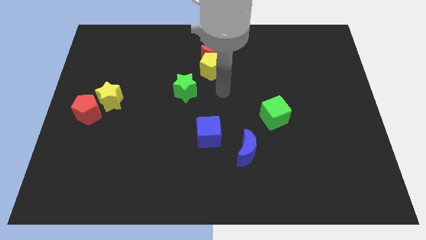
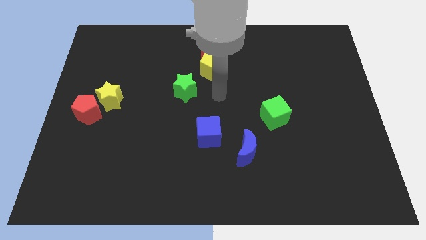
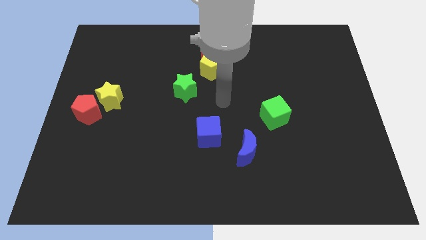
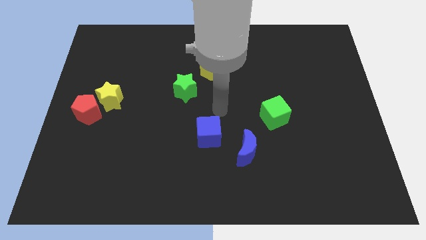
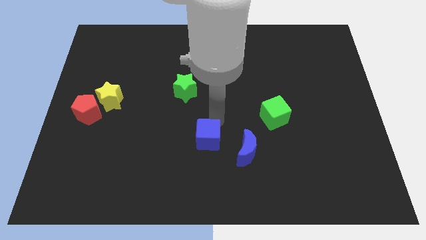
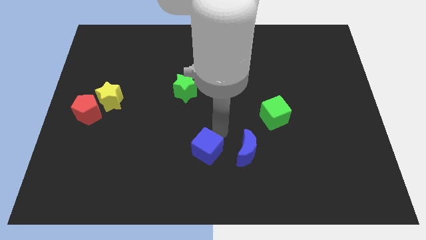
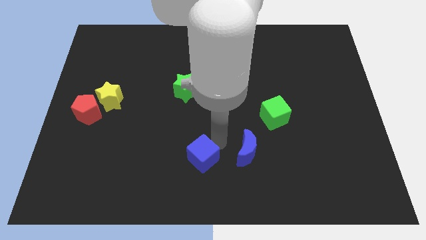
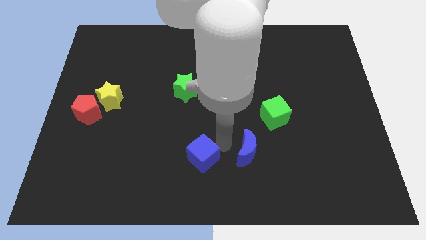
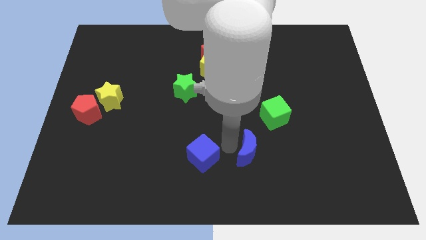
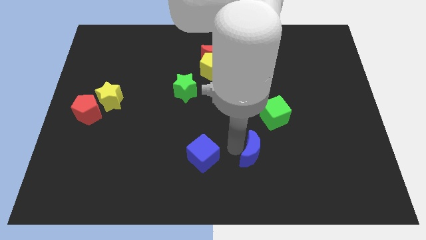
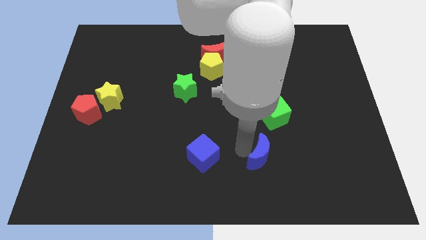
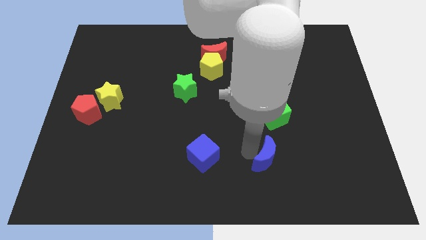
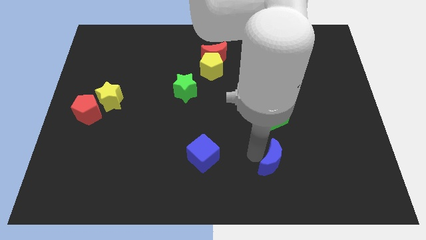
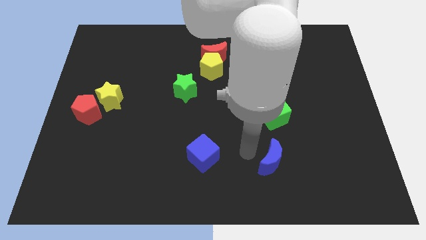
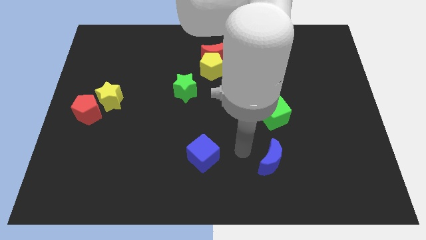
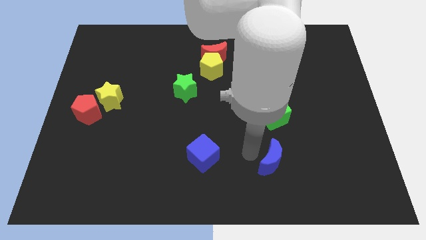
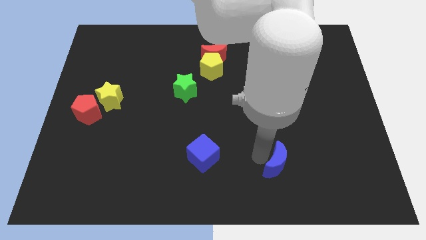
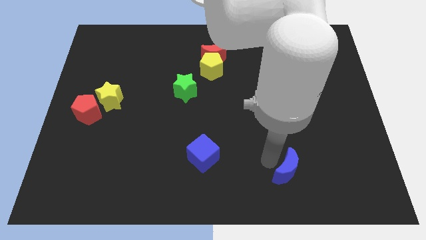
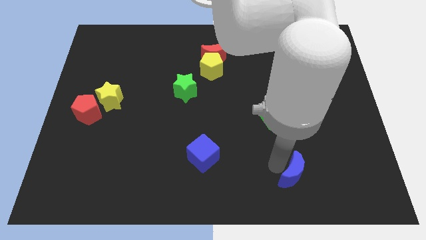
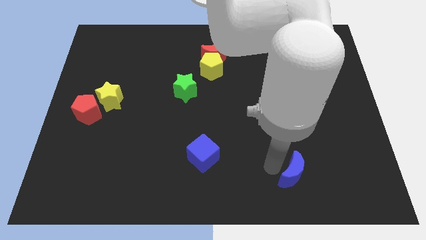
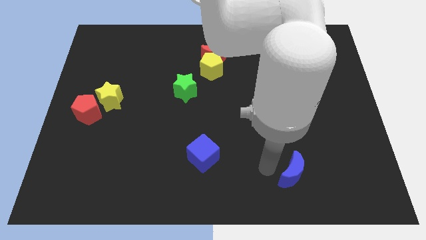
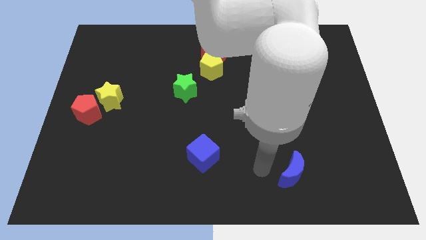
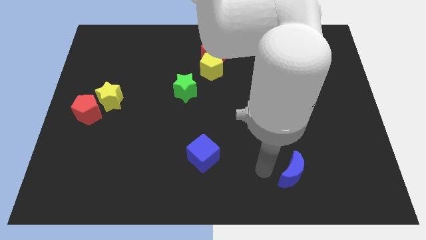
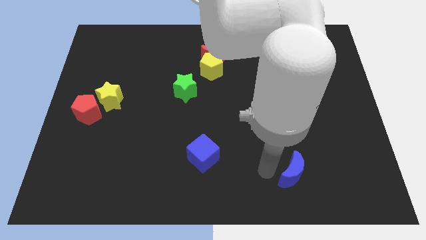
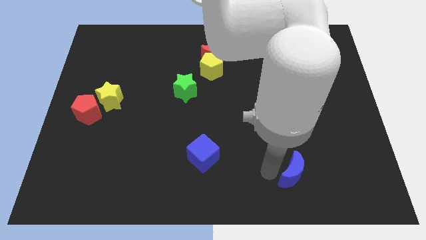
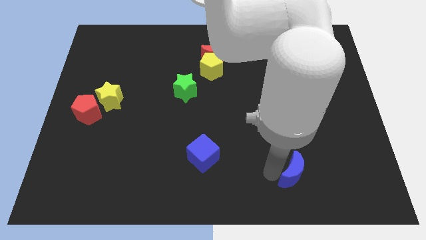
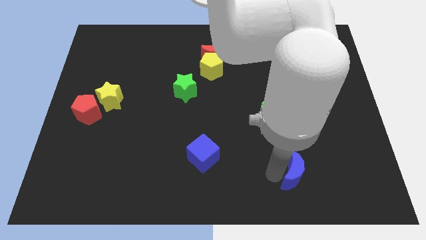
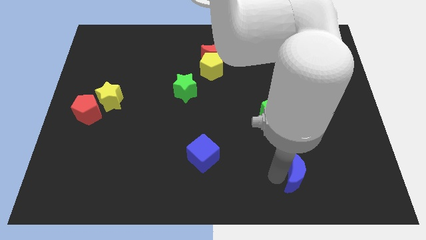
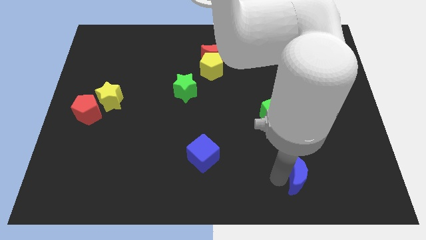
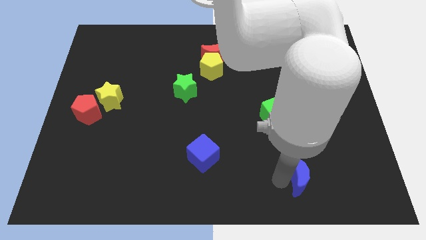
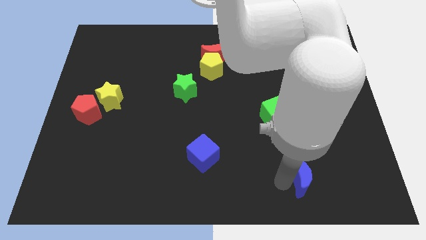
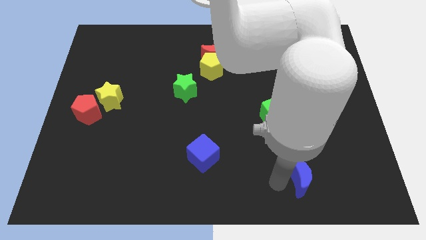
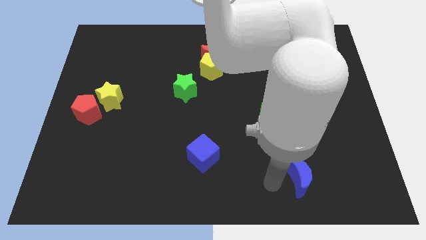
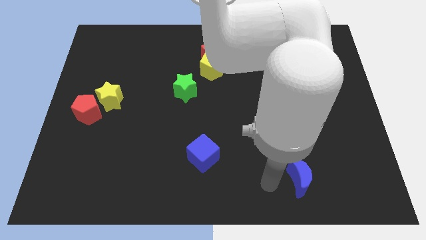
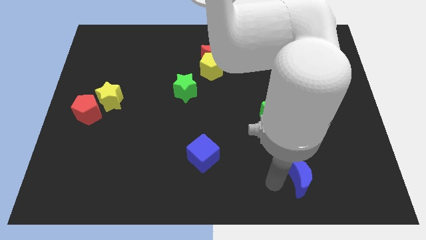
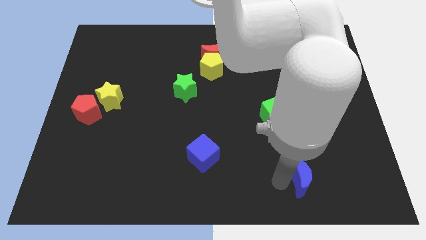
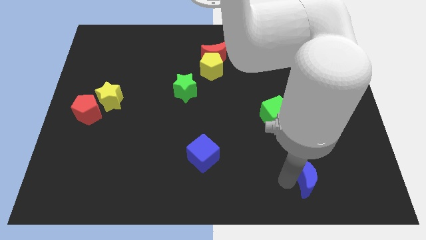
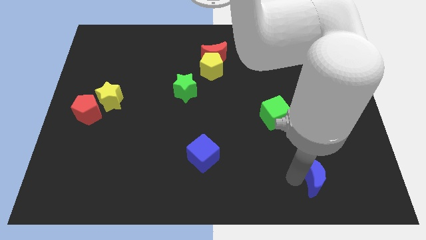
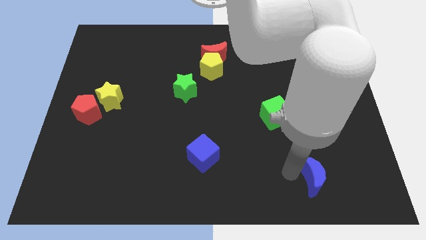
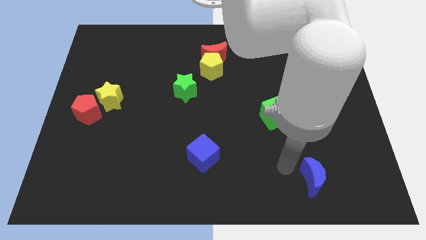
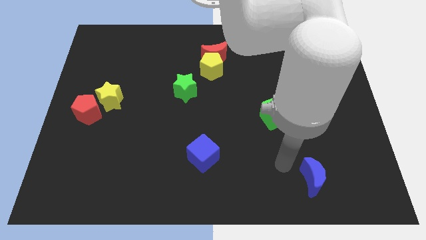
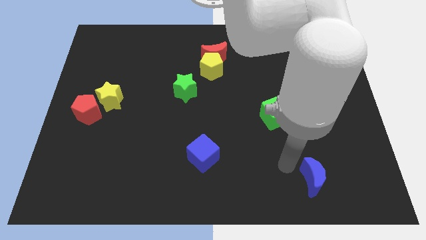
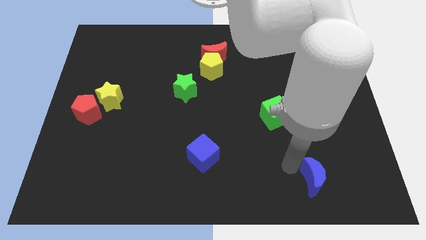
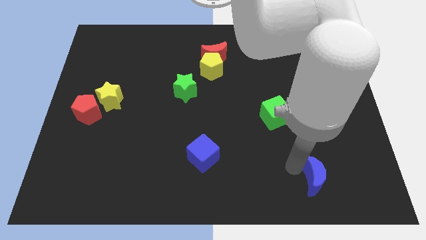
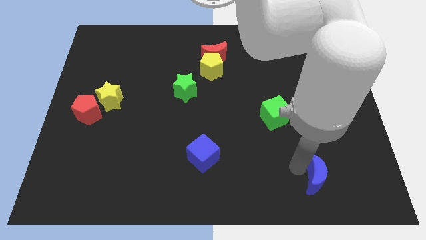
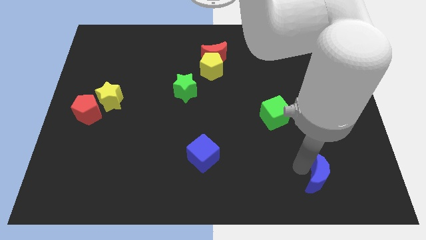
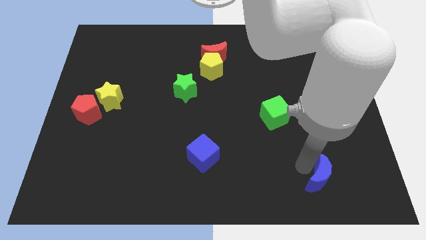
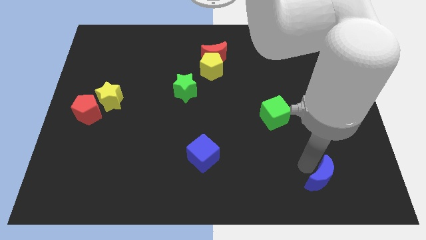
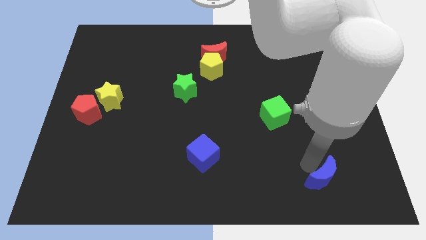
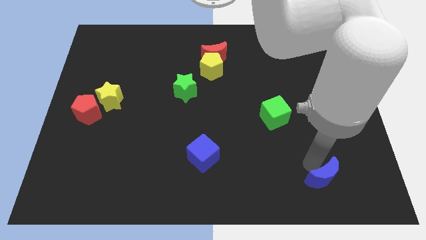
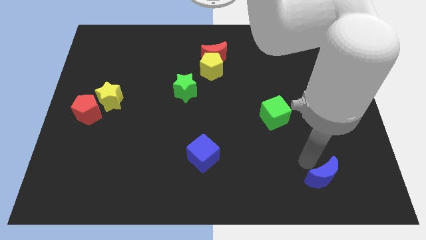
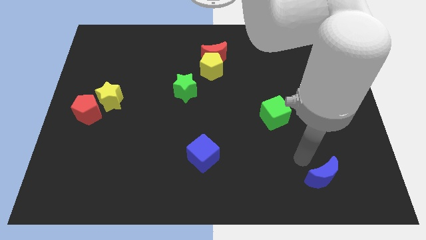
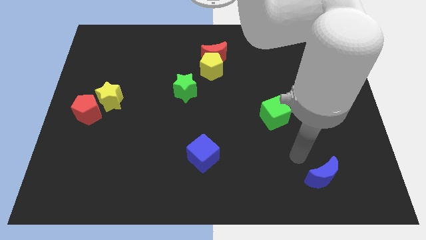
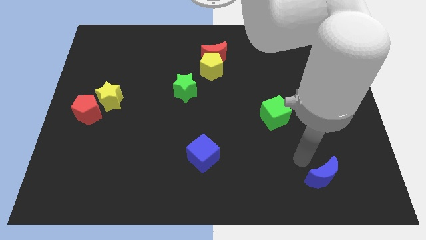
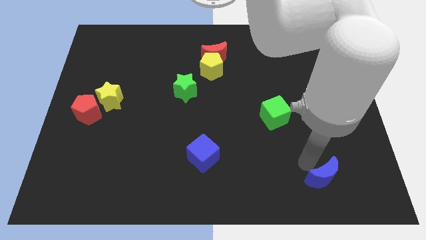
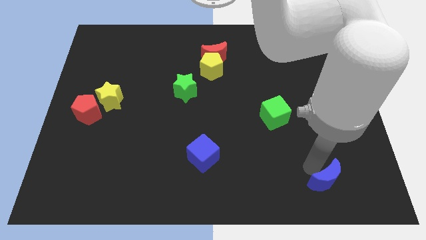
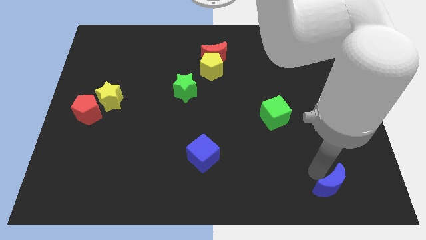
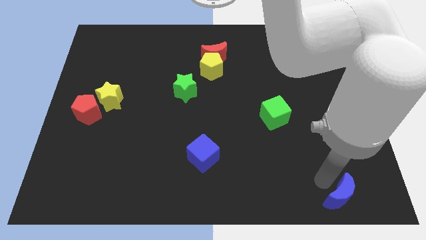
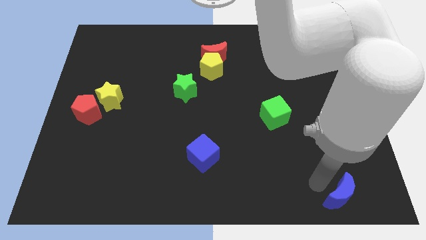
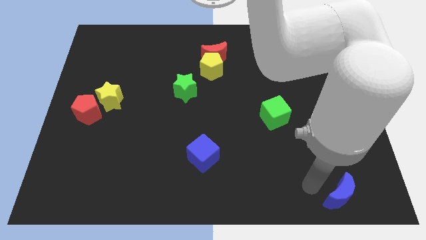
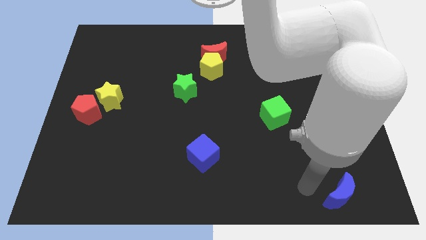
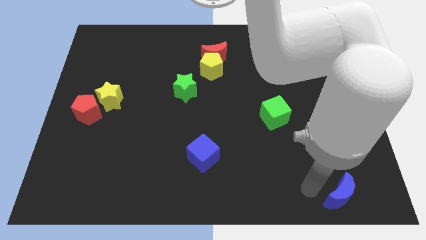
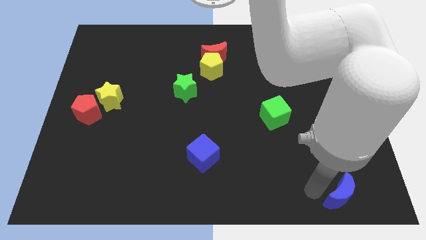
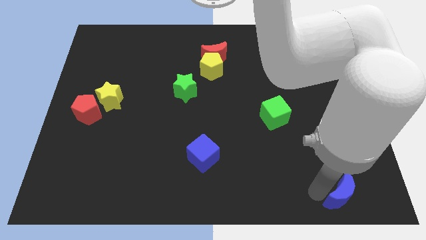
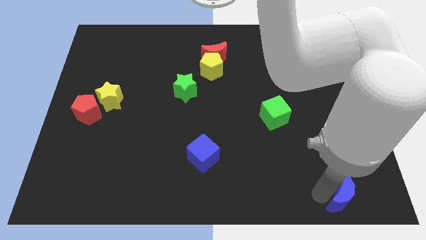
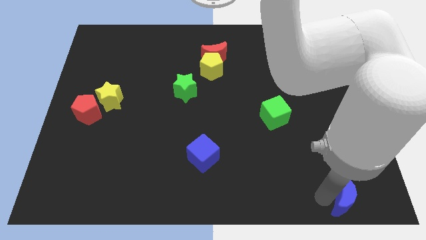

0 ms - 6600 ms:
put the blue moon to the lower right corner
